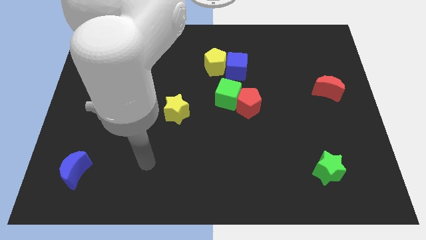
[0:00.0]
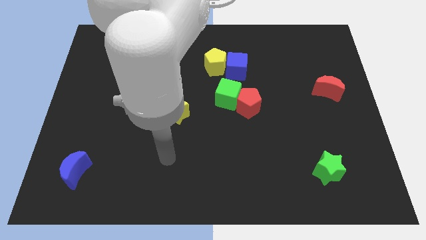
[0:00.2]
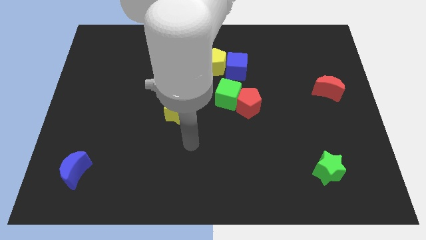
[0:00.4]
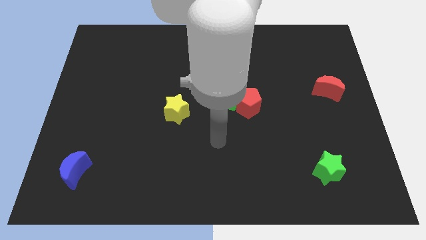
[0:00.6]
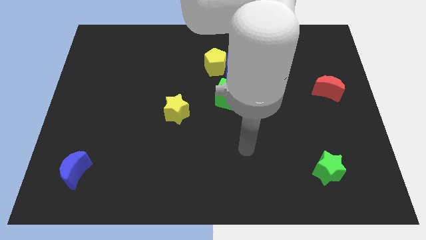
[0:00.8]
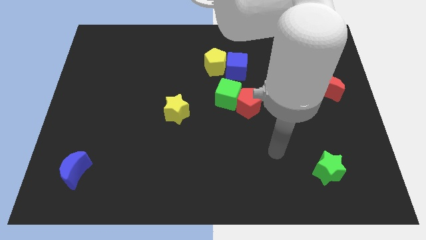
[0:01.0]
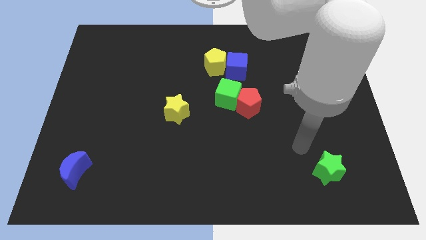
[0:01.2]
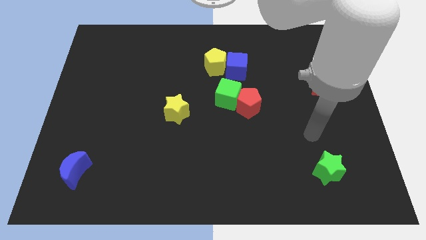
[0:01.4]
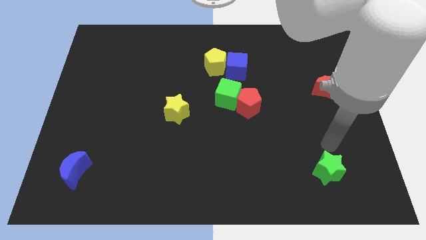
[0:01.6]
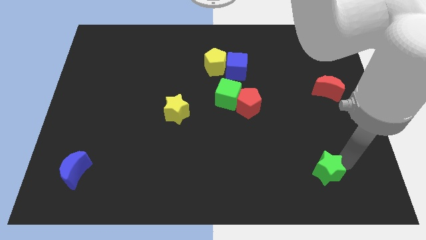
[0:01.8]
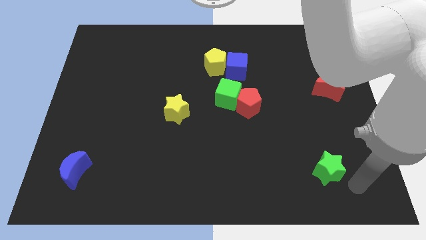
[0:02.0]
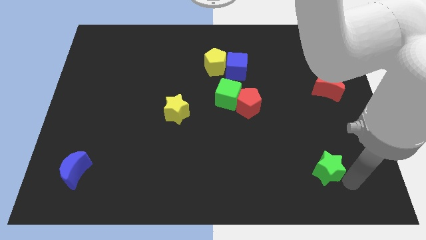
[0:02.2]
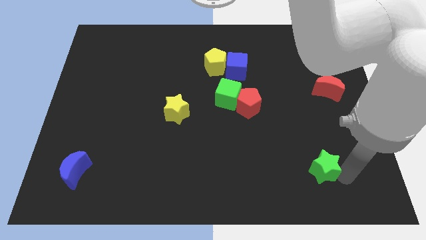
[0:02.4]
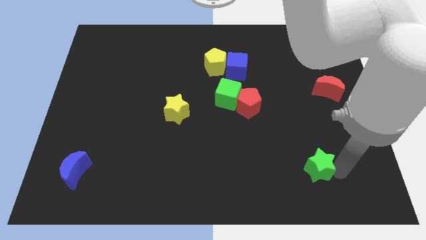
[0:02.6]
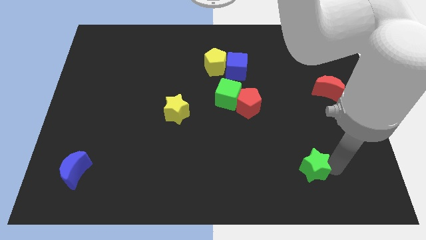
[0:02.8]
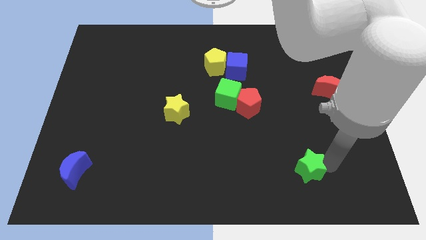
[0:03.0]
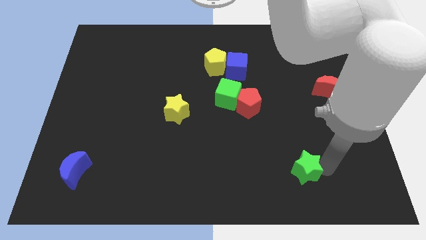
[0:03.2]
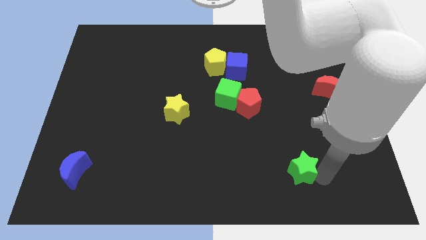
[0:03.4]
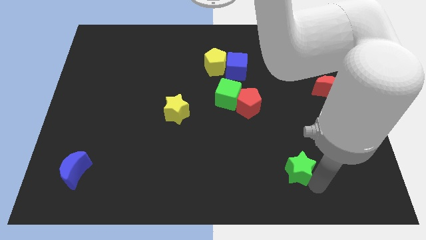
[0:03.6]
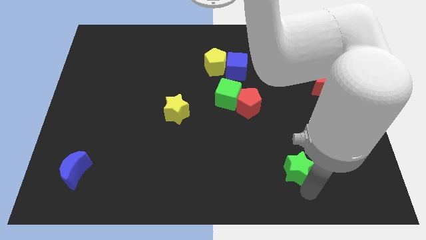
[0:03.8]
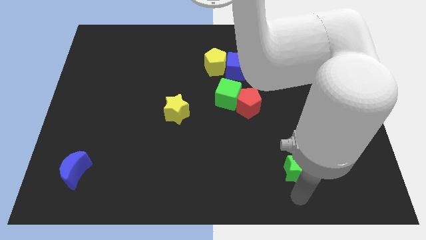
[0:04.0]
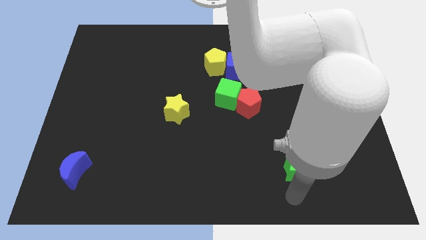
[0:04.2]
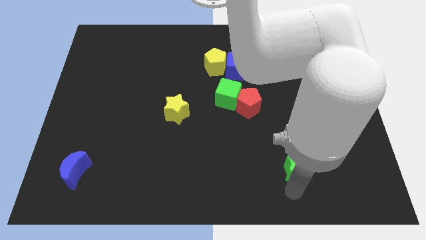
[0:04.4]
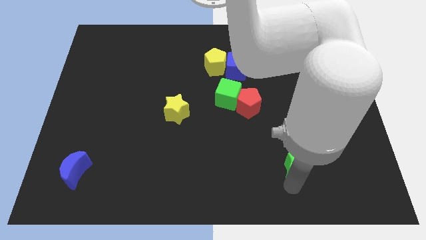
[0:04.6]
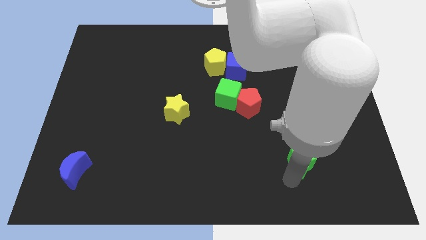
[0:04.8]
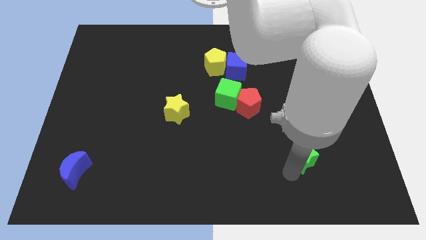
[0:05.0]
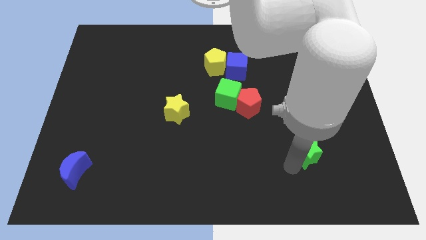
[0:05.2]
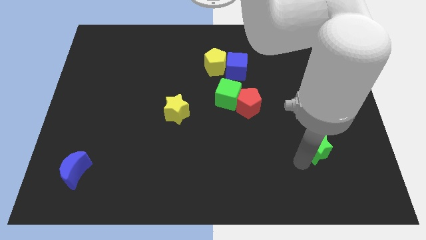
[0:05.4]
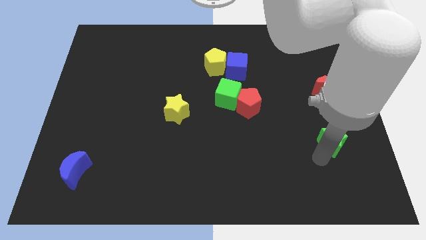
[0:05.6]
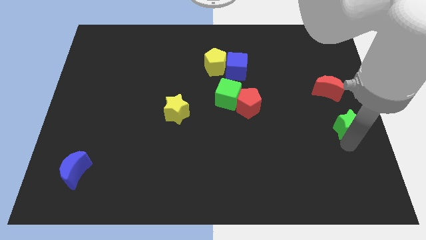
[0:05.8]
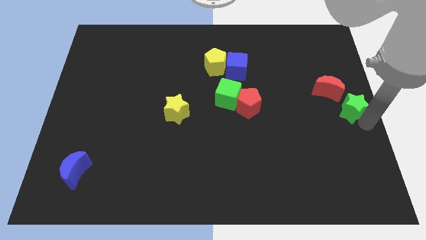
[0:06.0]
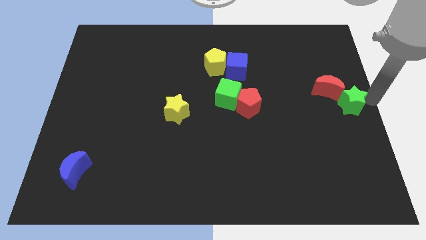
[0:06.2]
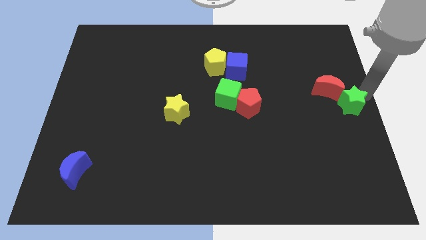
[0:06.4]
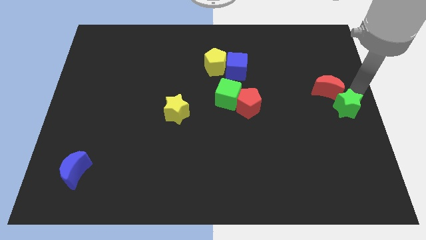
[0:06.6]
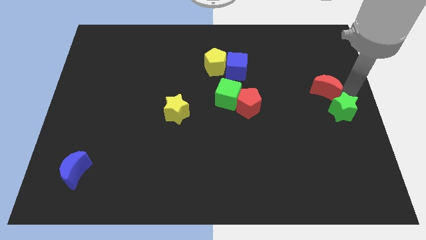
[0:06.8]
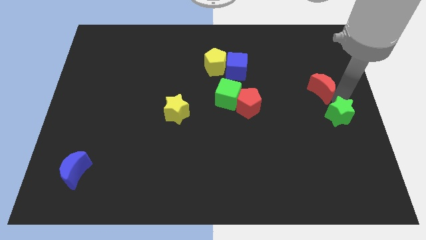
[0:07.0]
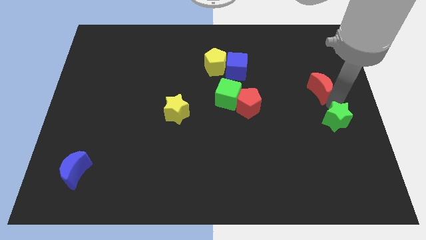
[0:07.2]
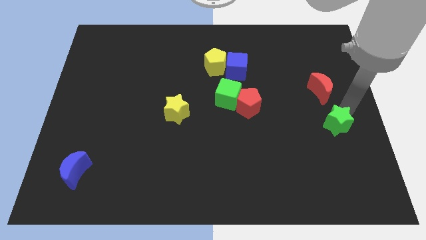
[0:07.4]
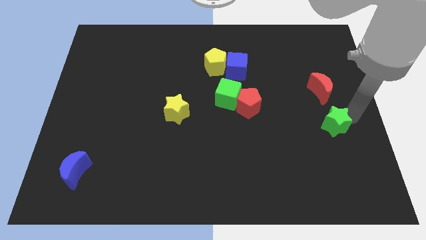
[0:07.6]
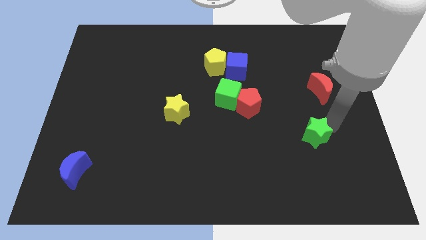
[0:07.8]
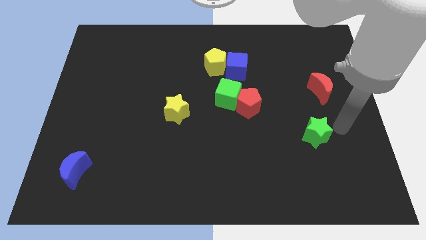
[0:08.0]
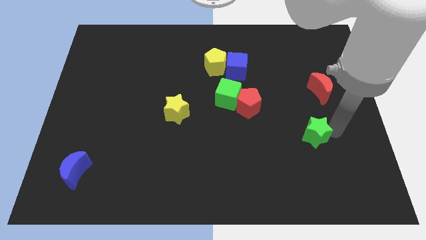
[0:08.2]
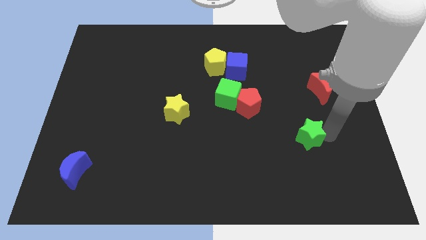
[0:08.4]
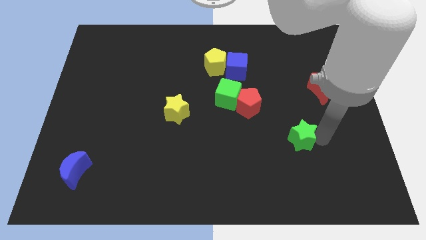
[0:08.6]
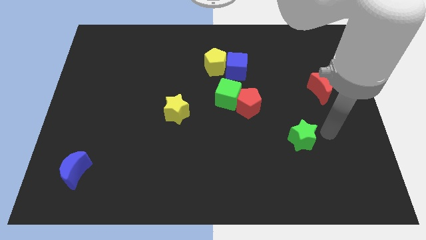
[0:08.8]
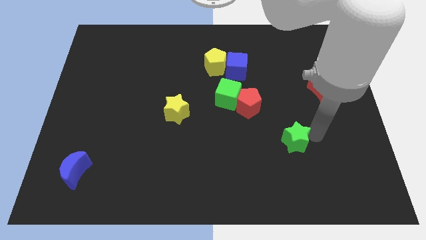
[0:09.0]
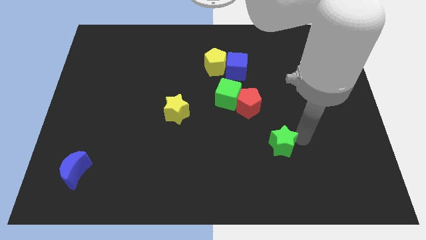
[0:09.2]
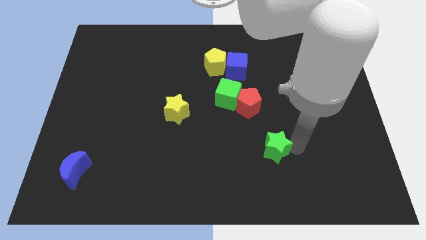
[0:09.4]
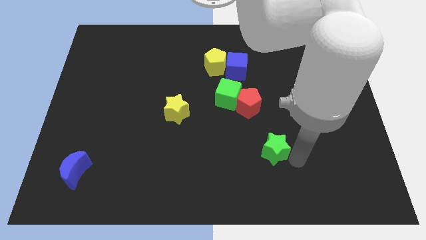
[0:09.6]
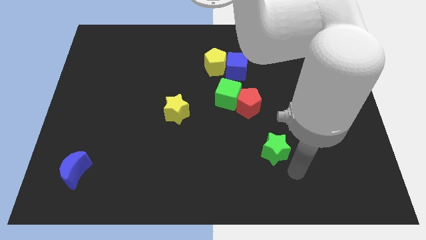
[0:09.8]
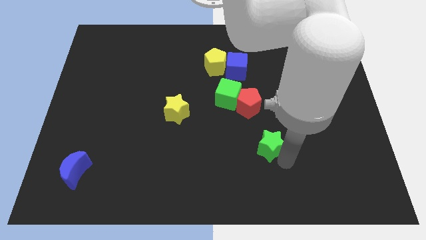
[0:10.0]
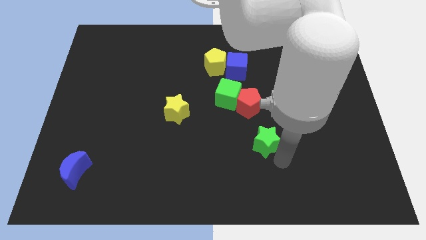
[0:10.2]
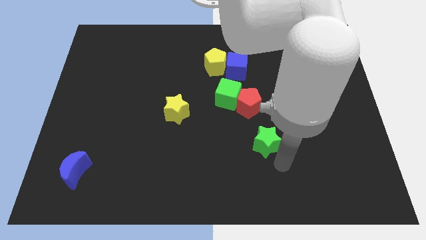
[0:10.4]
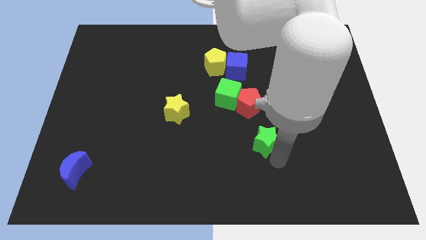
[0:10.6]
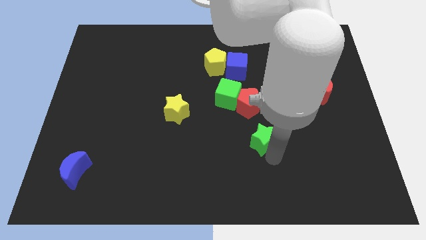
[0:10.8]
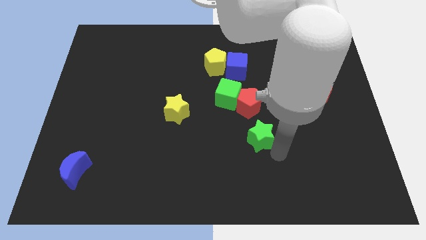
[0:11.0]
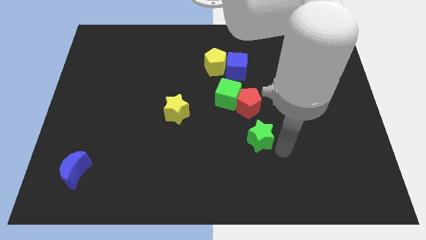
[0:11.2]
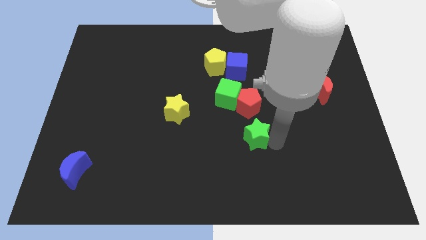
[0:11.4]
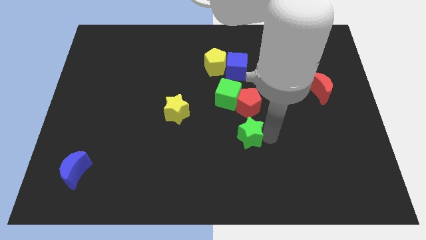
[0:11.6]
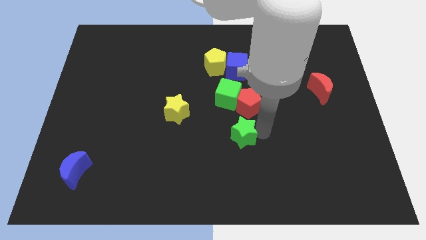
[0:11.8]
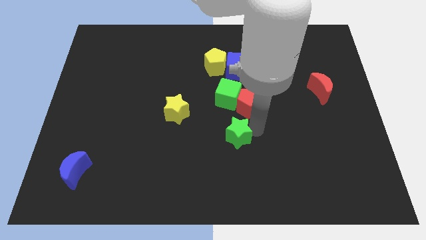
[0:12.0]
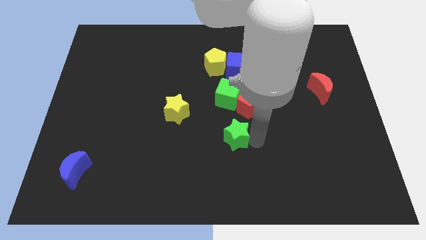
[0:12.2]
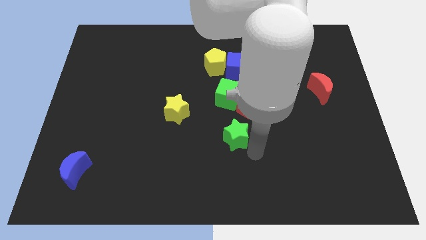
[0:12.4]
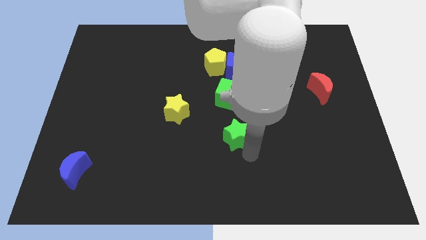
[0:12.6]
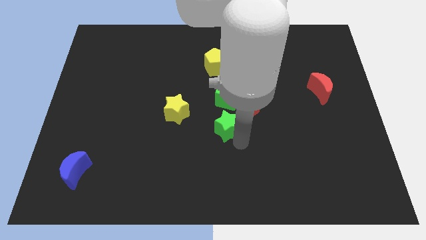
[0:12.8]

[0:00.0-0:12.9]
push the green star up and left diagonally

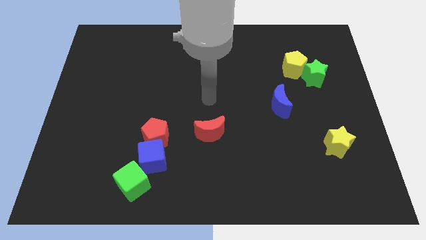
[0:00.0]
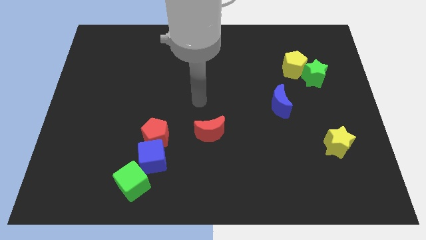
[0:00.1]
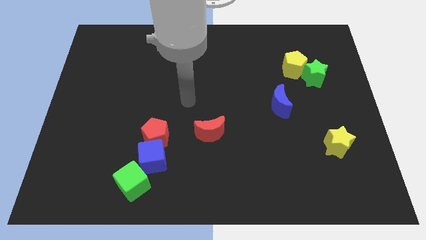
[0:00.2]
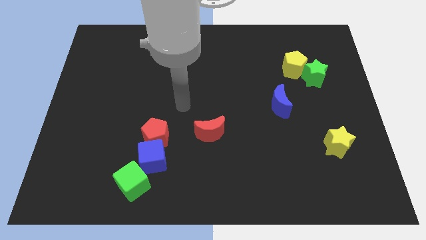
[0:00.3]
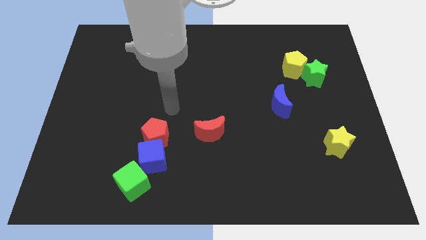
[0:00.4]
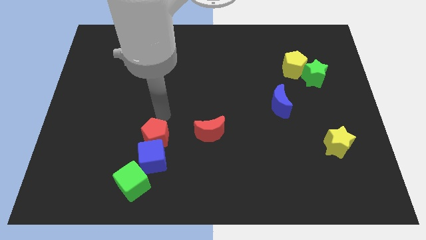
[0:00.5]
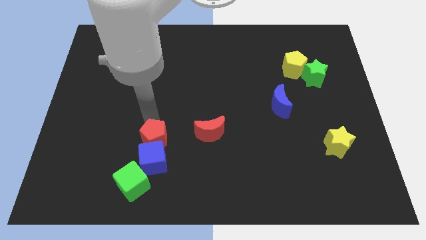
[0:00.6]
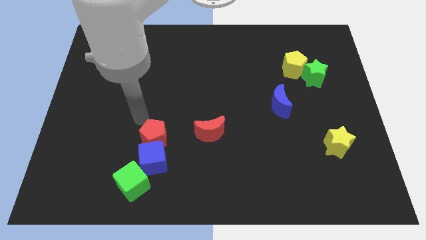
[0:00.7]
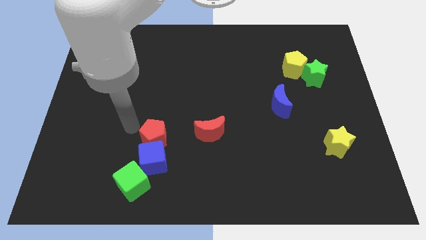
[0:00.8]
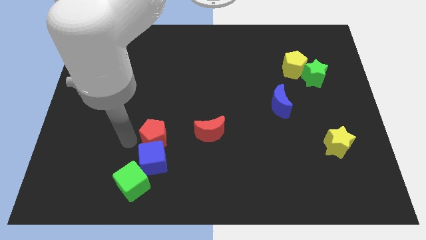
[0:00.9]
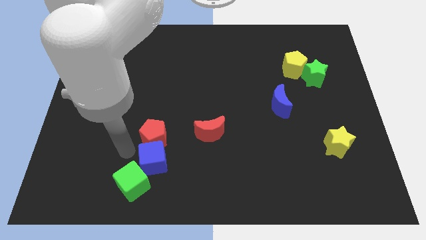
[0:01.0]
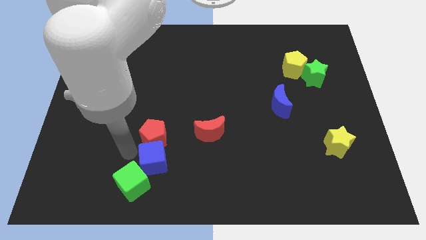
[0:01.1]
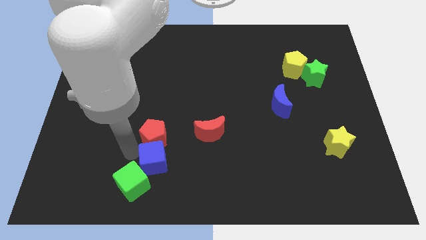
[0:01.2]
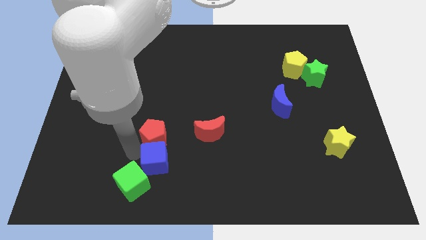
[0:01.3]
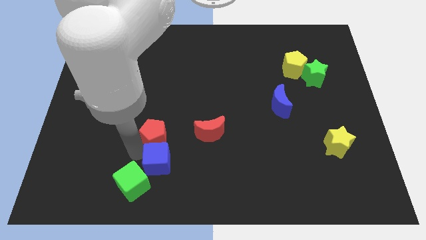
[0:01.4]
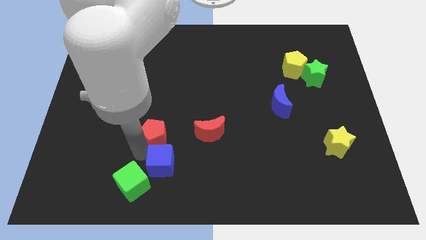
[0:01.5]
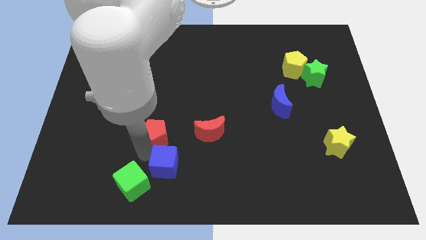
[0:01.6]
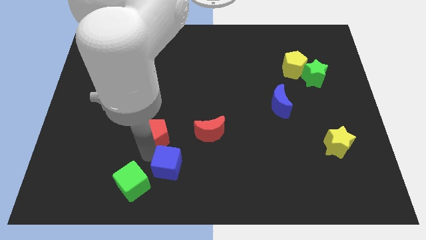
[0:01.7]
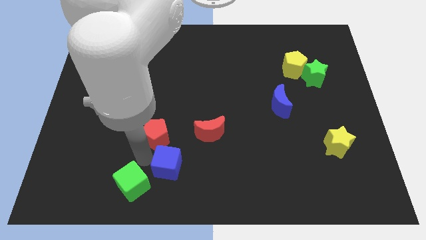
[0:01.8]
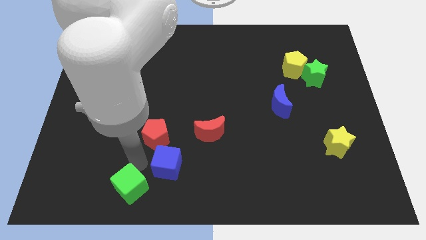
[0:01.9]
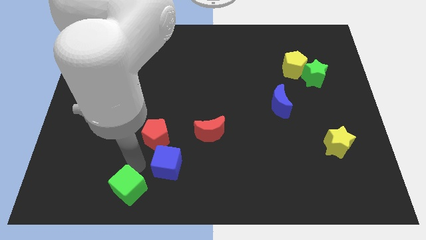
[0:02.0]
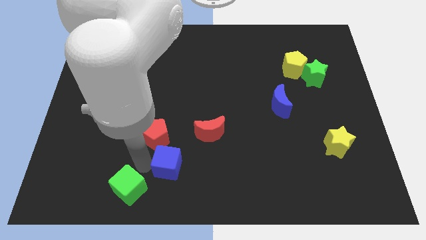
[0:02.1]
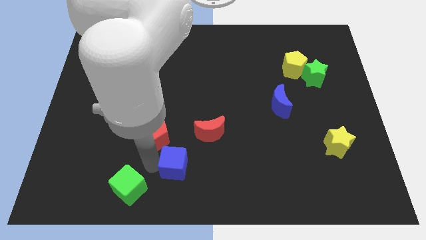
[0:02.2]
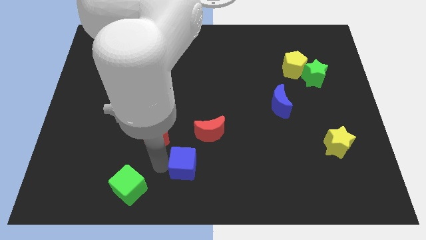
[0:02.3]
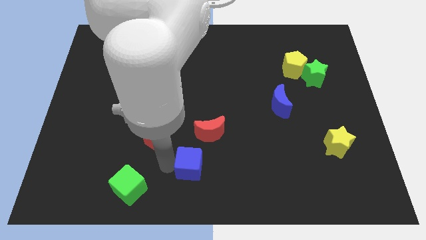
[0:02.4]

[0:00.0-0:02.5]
slide the blue cube a bit to the right
